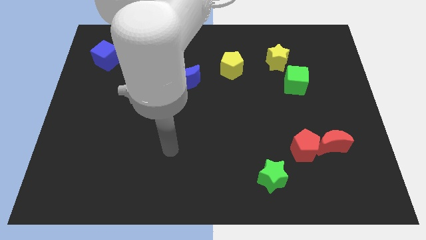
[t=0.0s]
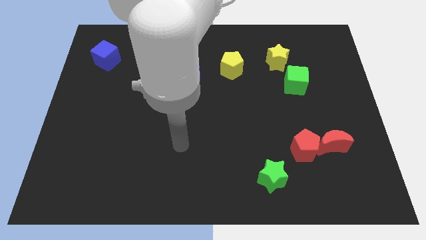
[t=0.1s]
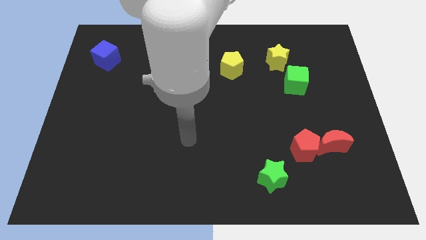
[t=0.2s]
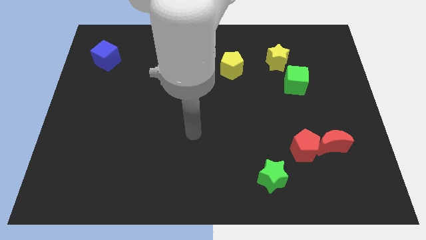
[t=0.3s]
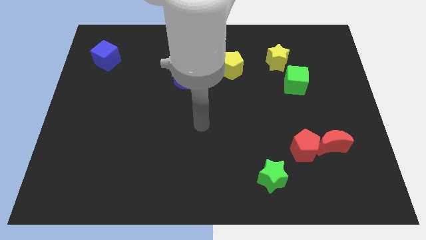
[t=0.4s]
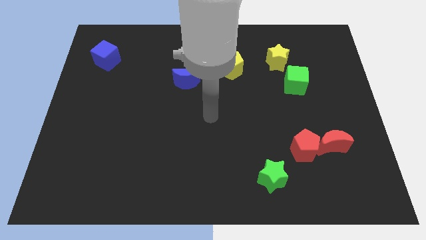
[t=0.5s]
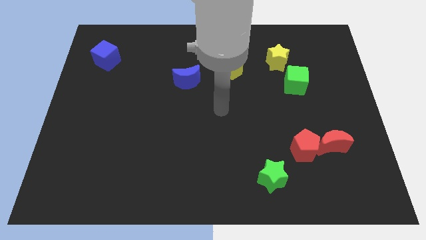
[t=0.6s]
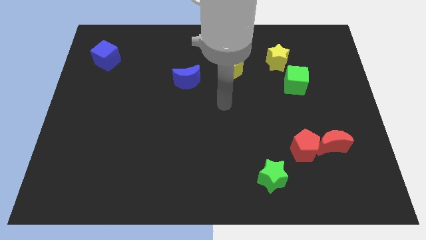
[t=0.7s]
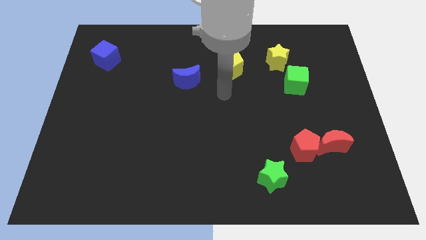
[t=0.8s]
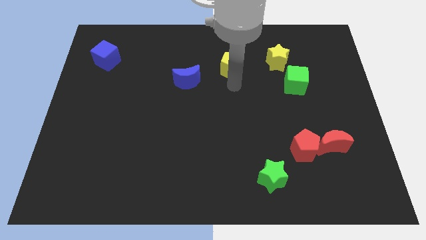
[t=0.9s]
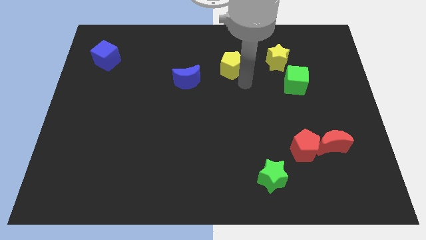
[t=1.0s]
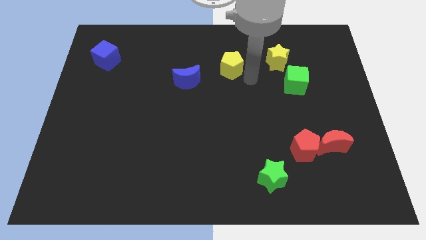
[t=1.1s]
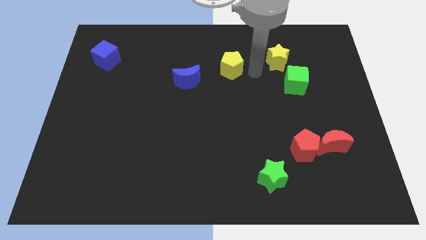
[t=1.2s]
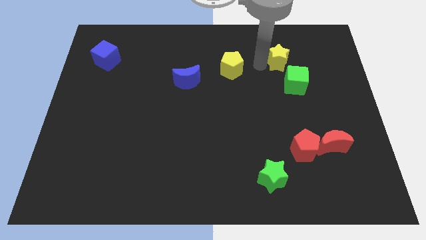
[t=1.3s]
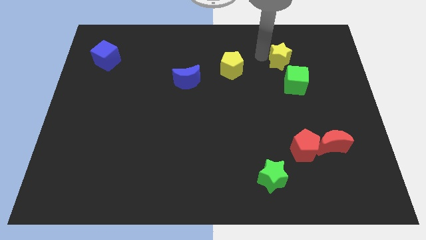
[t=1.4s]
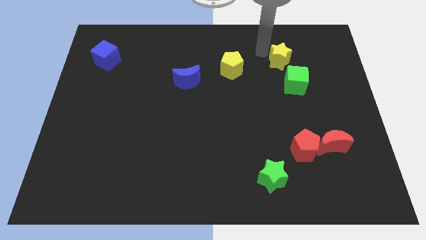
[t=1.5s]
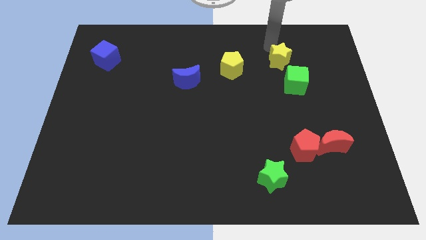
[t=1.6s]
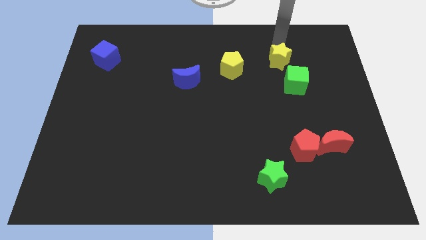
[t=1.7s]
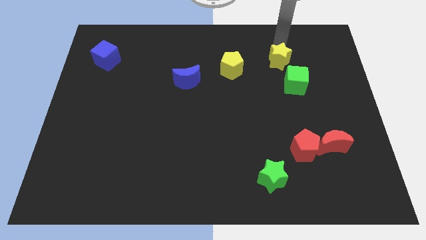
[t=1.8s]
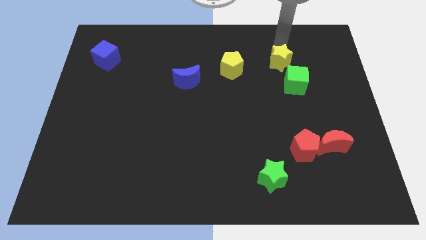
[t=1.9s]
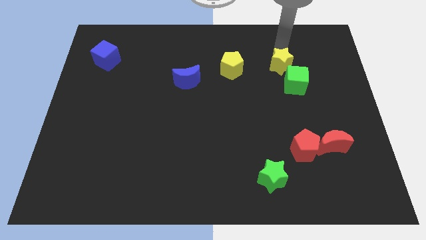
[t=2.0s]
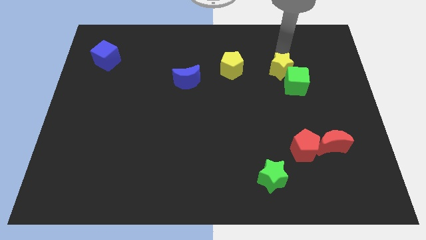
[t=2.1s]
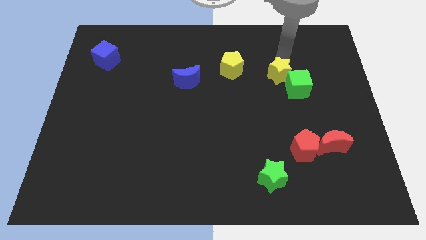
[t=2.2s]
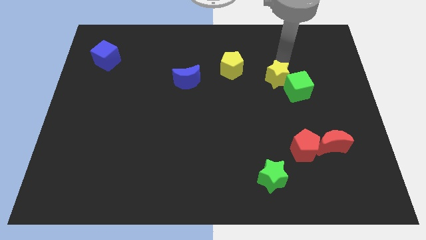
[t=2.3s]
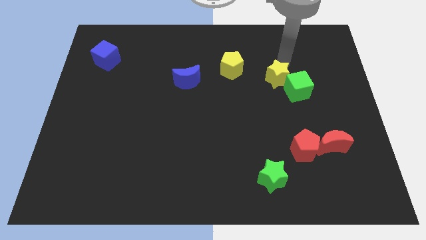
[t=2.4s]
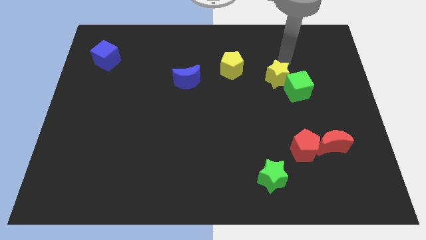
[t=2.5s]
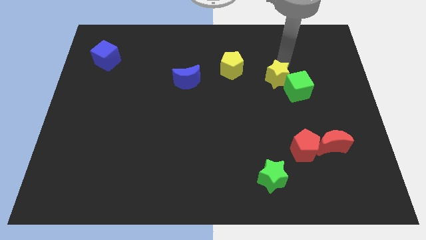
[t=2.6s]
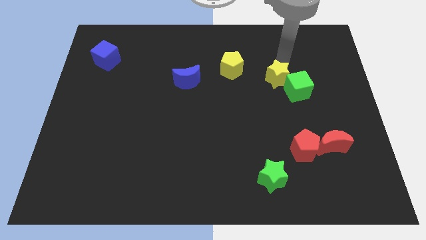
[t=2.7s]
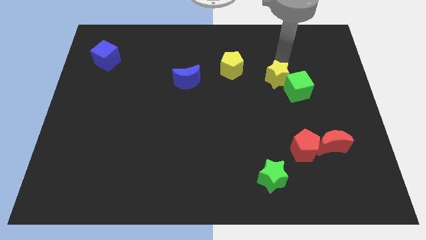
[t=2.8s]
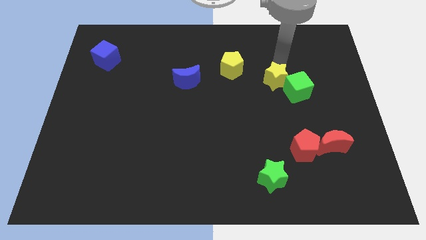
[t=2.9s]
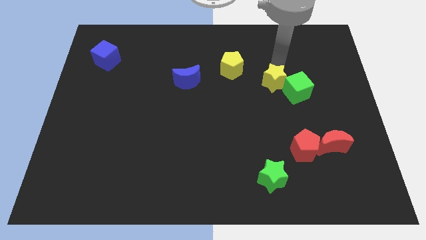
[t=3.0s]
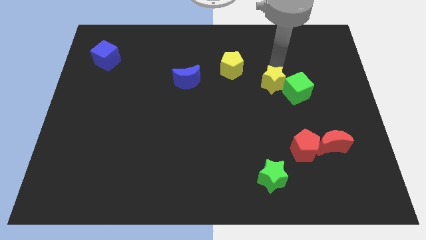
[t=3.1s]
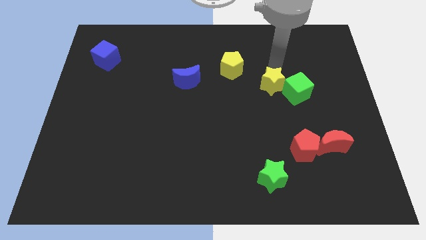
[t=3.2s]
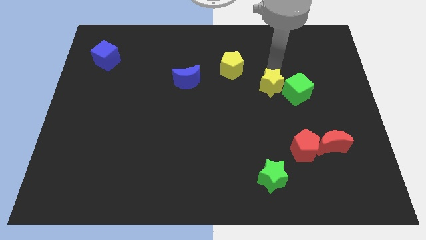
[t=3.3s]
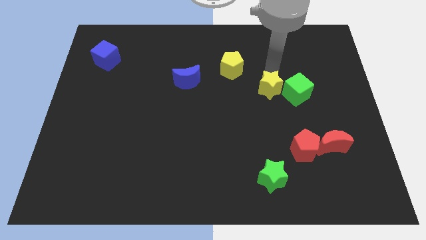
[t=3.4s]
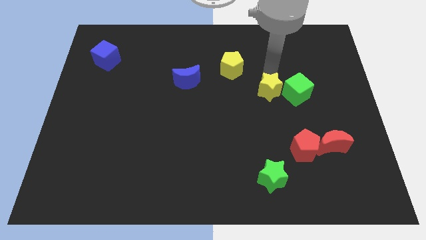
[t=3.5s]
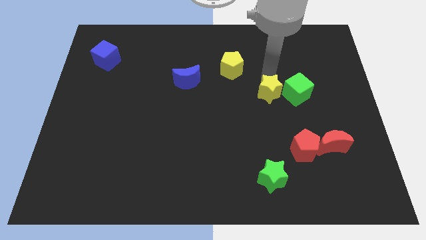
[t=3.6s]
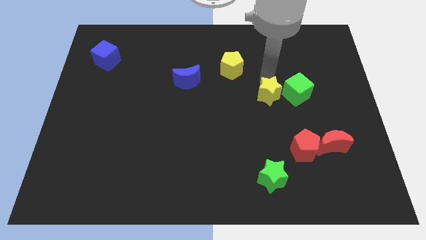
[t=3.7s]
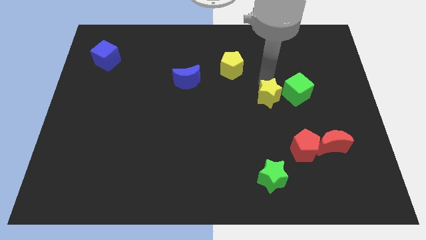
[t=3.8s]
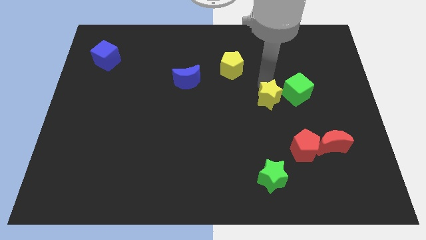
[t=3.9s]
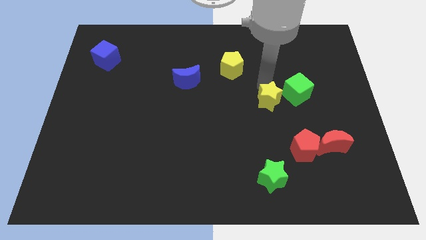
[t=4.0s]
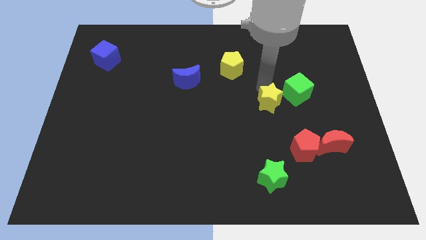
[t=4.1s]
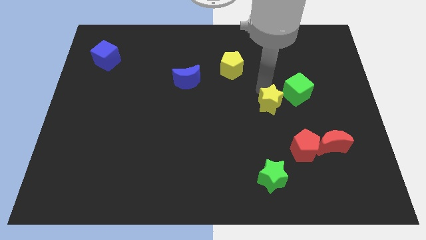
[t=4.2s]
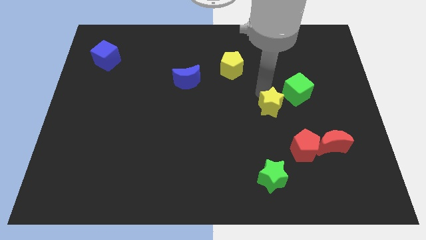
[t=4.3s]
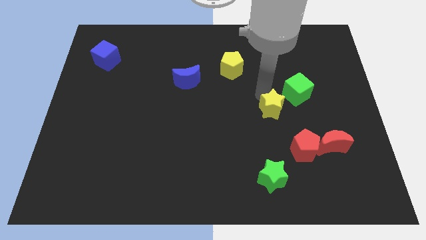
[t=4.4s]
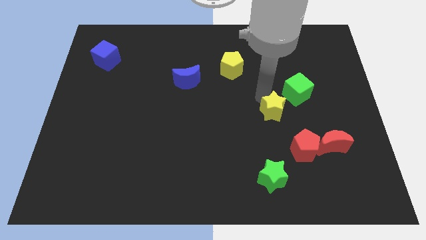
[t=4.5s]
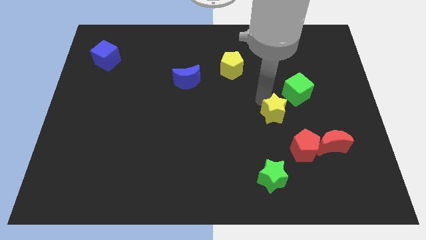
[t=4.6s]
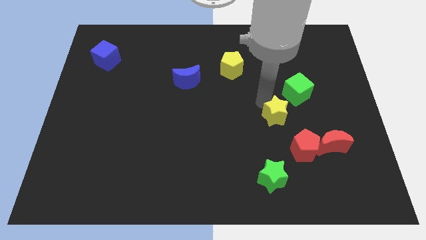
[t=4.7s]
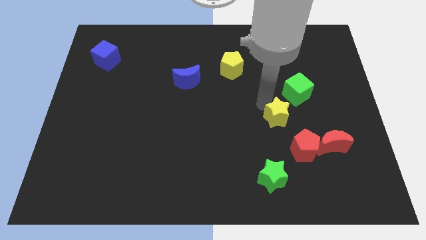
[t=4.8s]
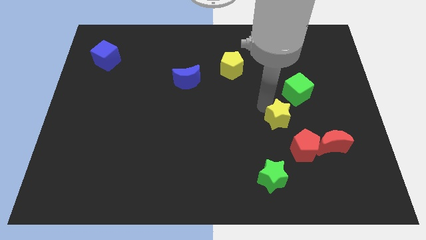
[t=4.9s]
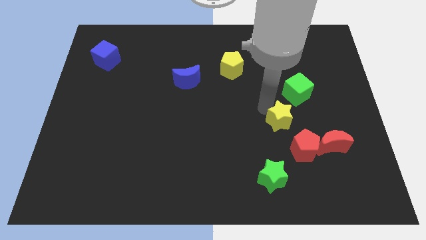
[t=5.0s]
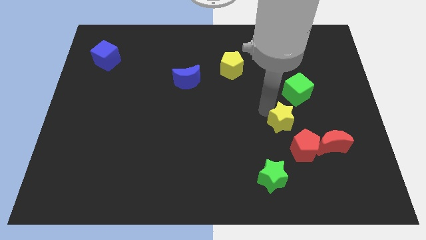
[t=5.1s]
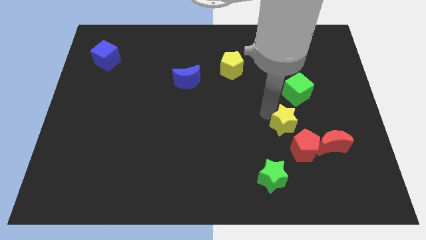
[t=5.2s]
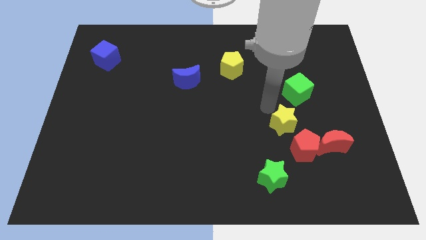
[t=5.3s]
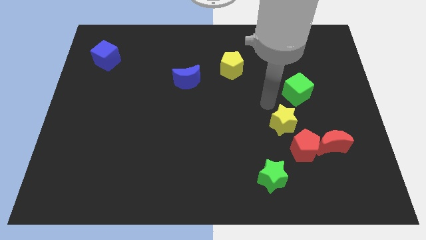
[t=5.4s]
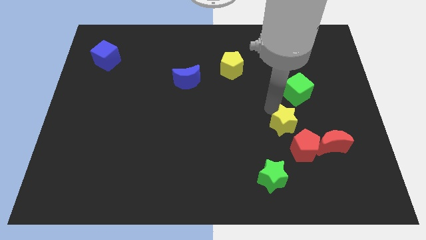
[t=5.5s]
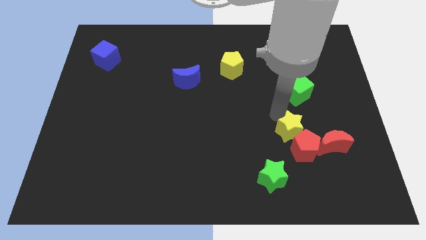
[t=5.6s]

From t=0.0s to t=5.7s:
put the yellow star next to the red pentagon

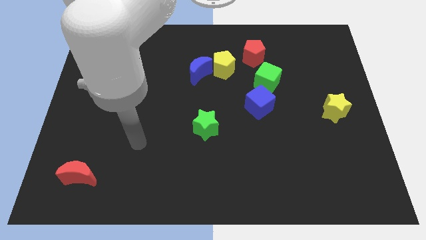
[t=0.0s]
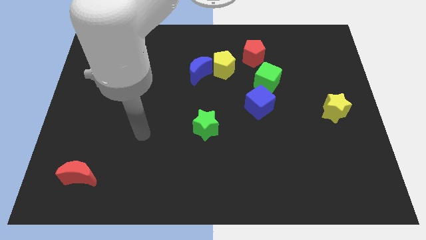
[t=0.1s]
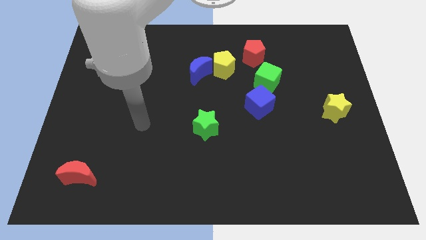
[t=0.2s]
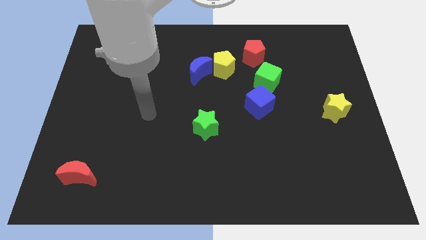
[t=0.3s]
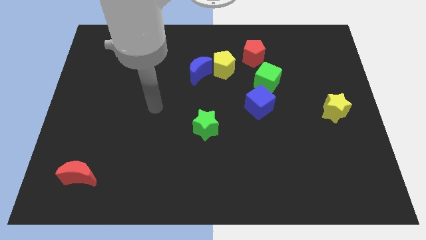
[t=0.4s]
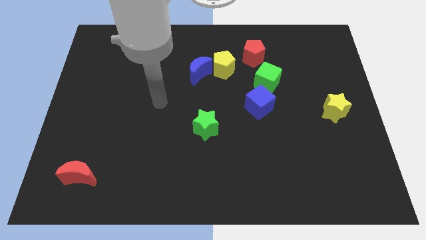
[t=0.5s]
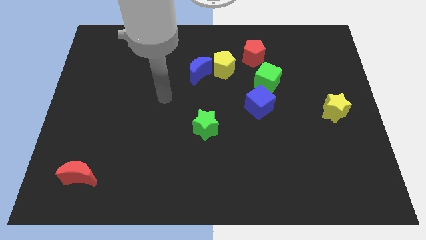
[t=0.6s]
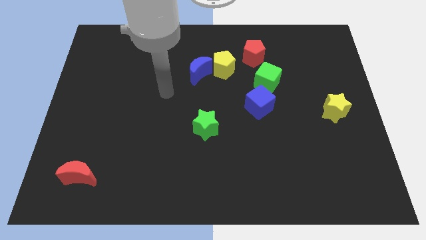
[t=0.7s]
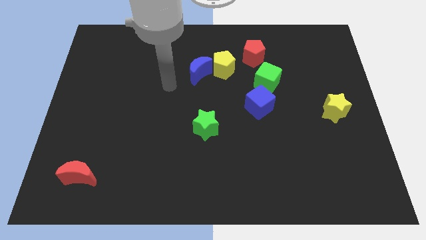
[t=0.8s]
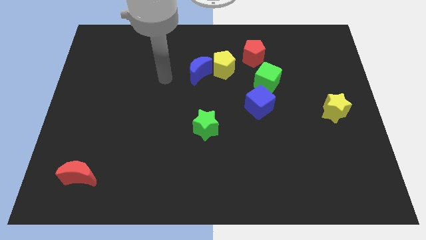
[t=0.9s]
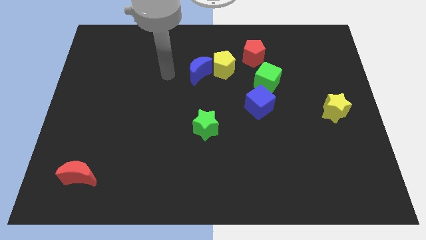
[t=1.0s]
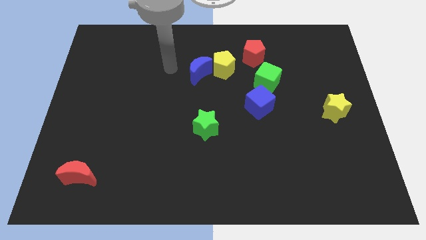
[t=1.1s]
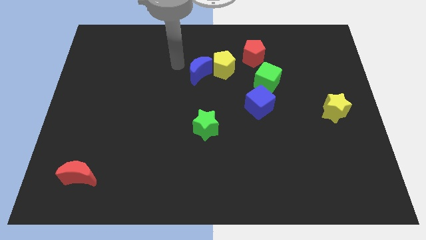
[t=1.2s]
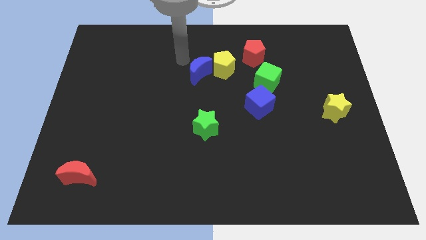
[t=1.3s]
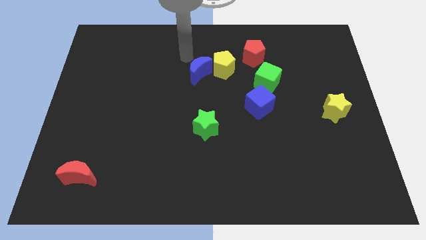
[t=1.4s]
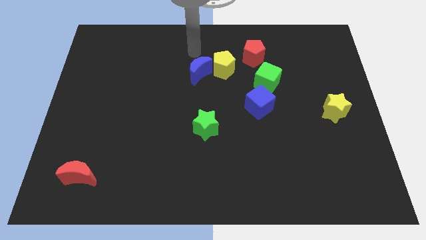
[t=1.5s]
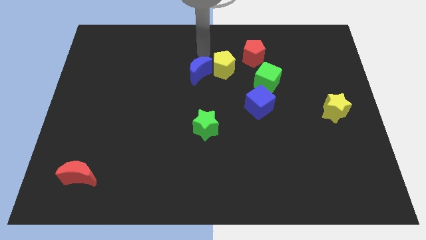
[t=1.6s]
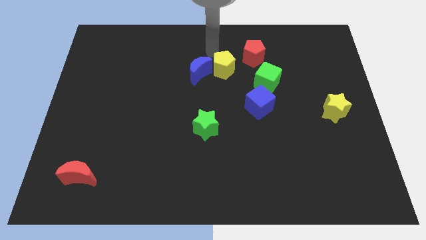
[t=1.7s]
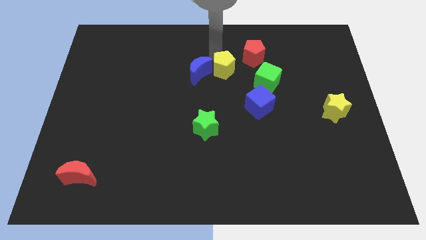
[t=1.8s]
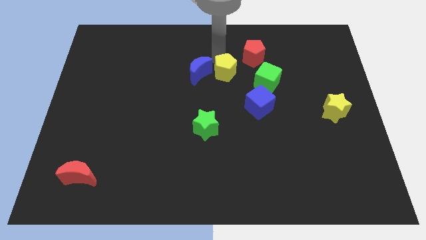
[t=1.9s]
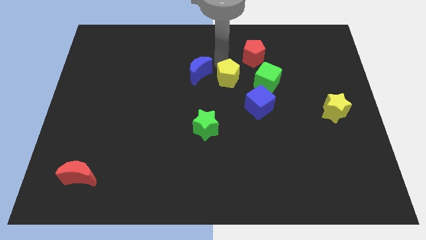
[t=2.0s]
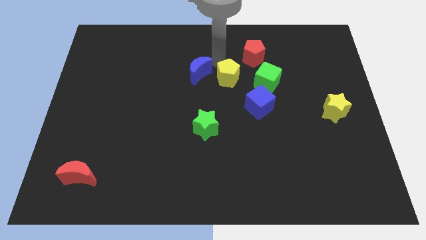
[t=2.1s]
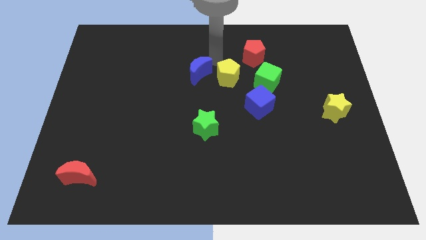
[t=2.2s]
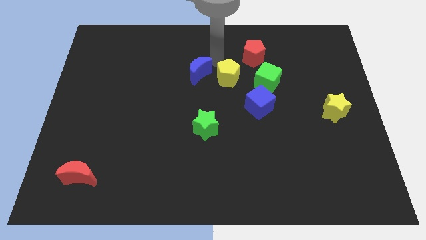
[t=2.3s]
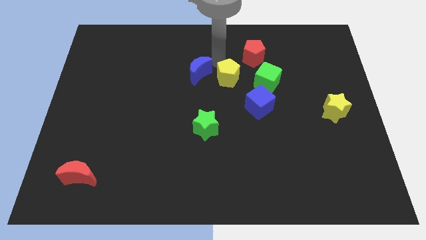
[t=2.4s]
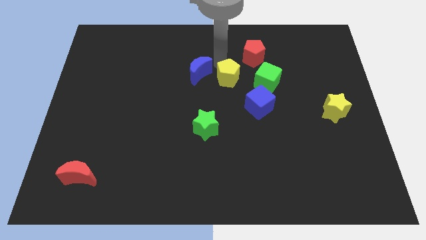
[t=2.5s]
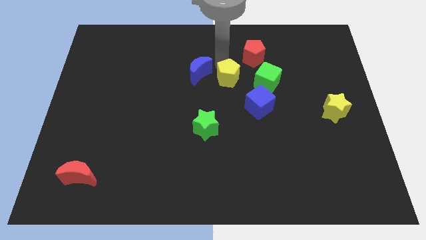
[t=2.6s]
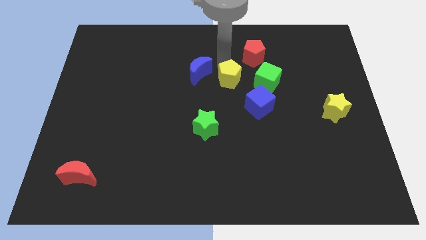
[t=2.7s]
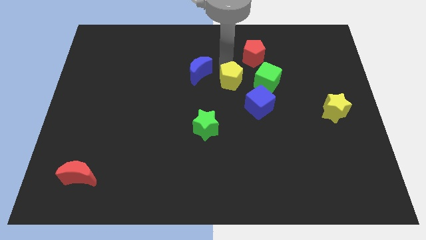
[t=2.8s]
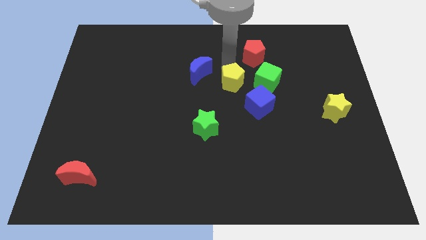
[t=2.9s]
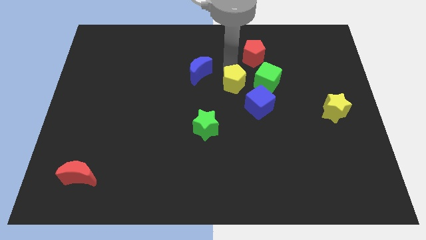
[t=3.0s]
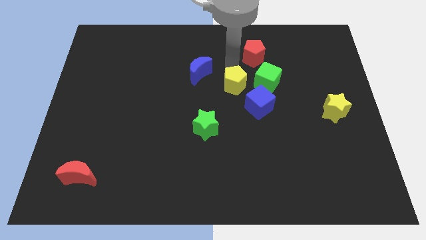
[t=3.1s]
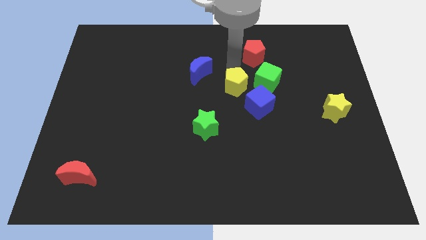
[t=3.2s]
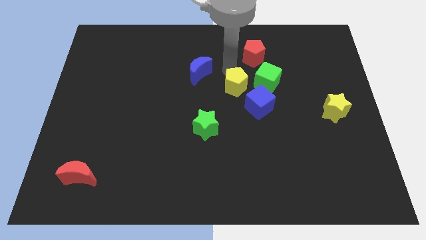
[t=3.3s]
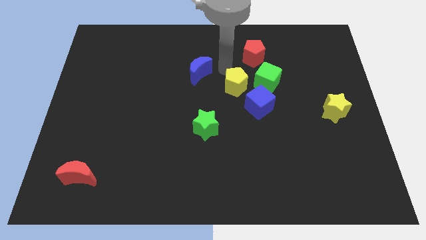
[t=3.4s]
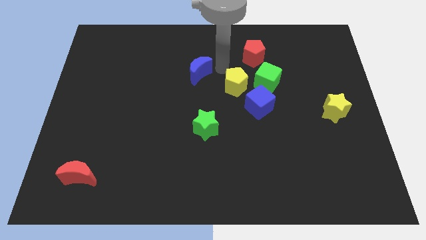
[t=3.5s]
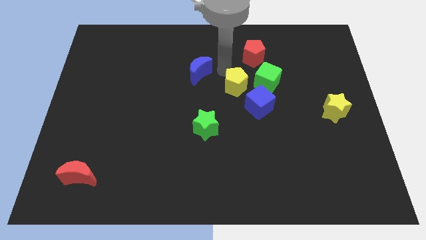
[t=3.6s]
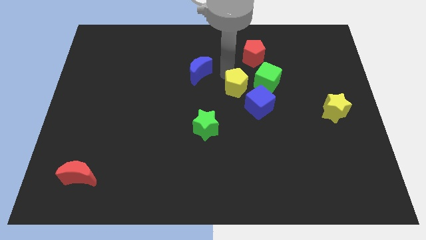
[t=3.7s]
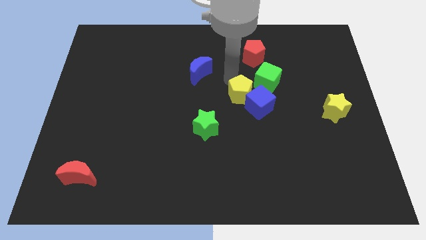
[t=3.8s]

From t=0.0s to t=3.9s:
slide the yellow pentagon towards the blue cube
